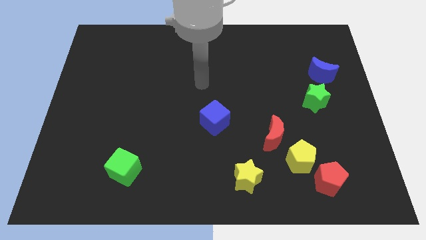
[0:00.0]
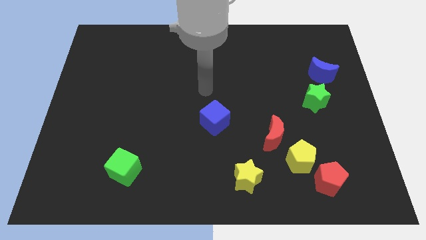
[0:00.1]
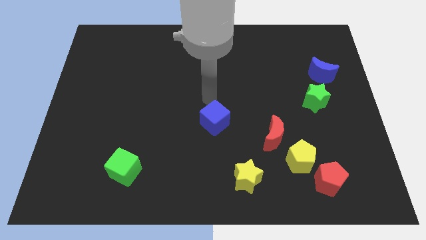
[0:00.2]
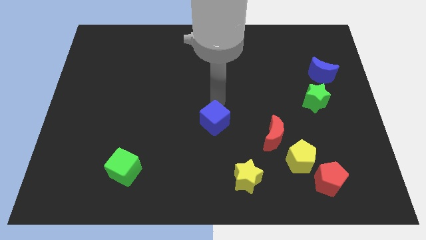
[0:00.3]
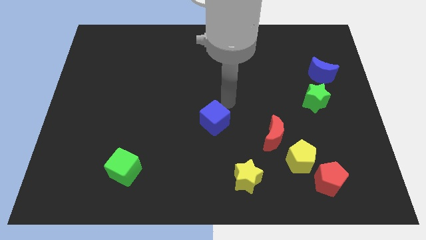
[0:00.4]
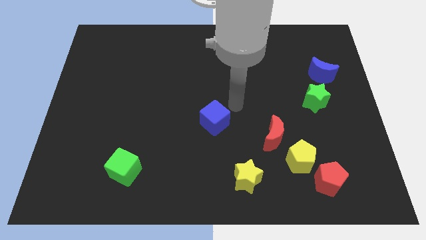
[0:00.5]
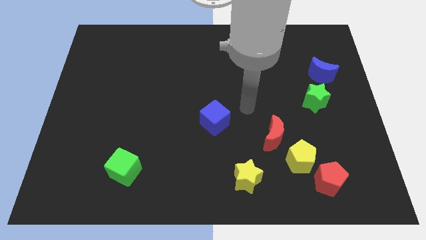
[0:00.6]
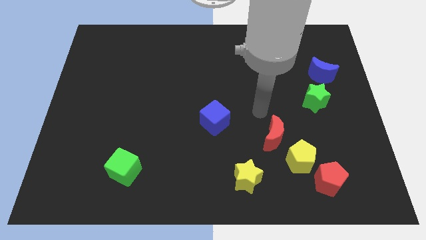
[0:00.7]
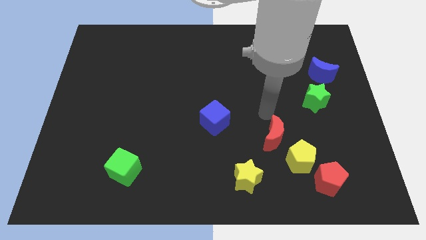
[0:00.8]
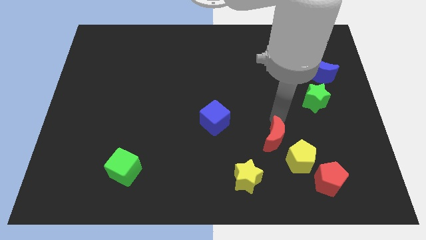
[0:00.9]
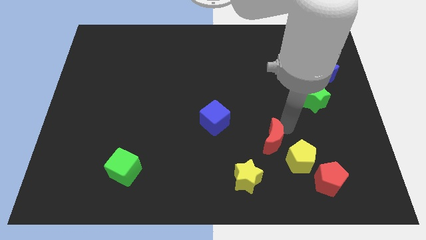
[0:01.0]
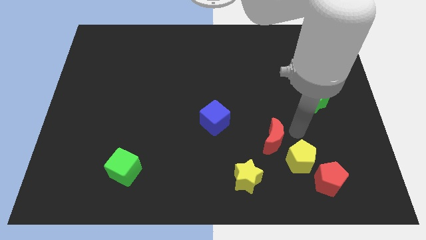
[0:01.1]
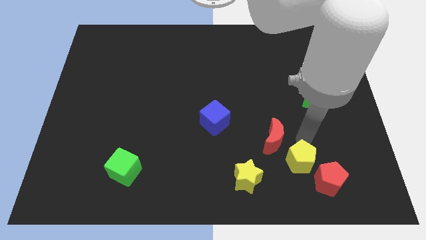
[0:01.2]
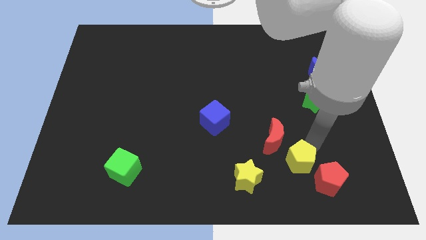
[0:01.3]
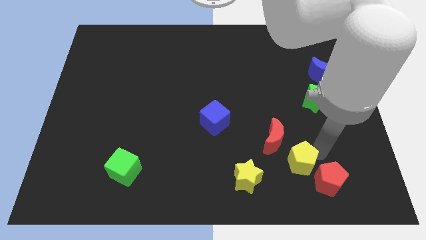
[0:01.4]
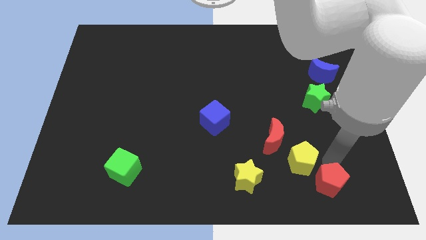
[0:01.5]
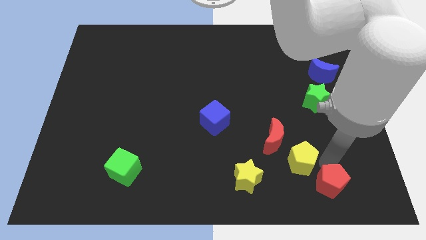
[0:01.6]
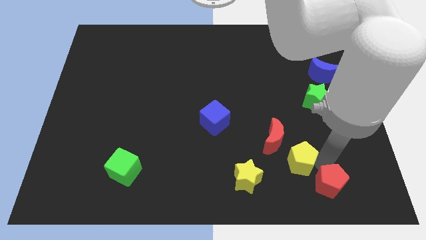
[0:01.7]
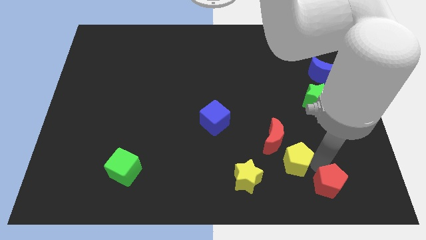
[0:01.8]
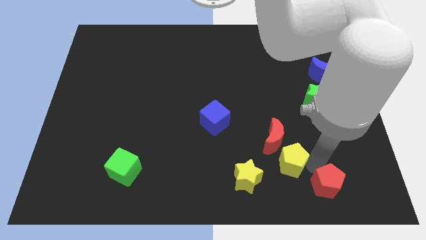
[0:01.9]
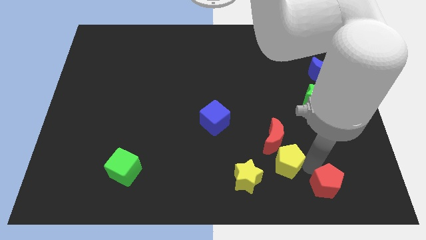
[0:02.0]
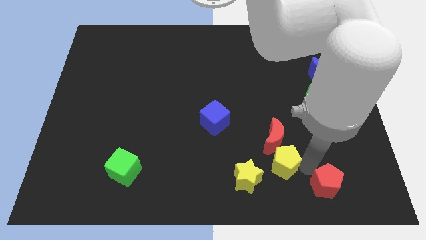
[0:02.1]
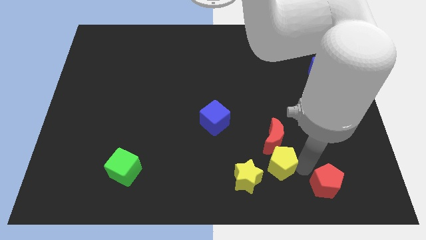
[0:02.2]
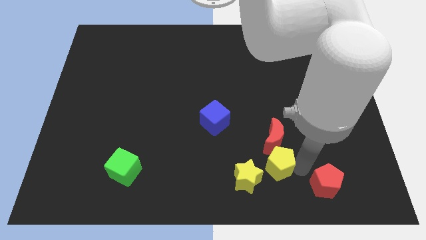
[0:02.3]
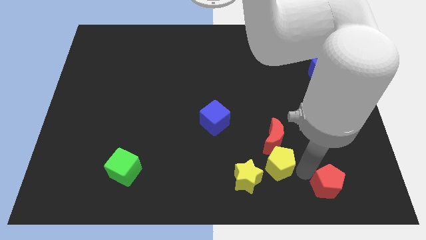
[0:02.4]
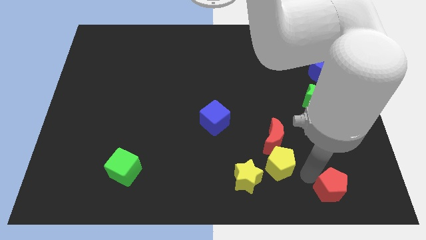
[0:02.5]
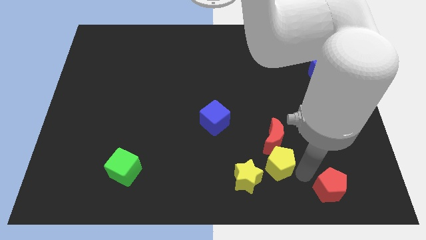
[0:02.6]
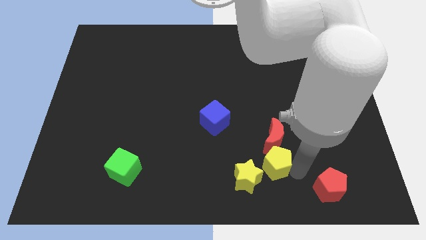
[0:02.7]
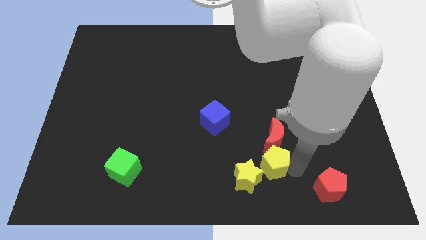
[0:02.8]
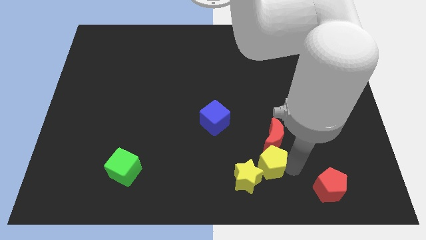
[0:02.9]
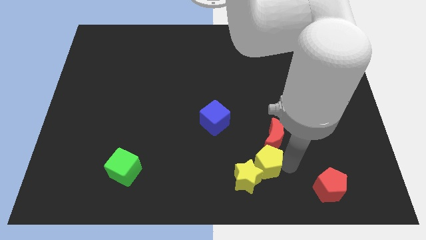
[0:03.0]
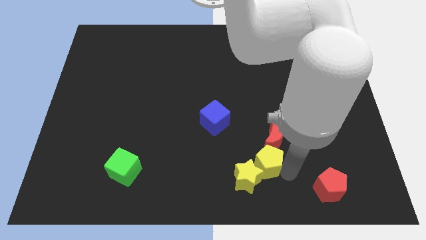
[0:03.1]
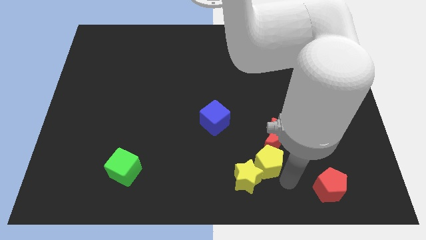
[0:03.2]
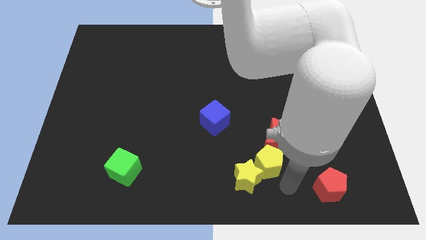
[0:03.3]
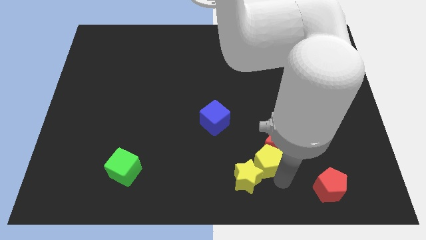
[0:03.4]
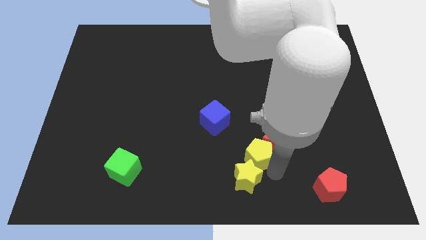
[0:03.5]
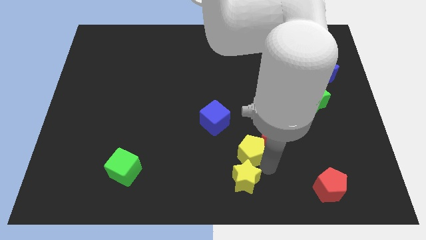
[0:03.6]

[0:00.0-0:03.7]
slightly move the yellow pentagon upwards and left

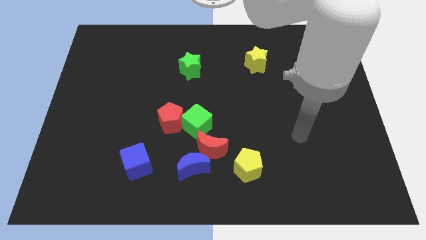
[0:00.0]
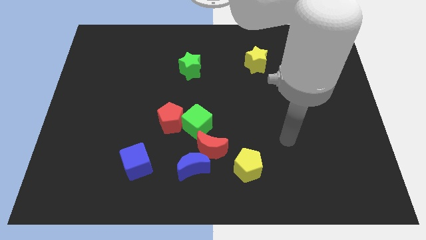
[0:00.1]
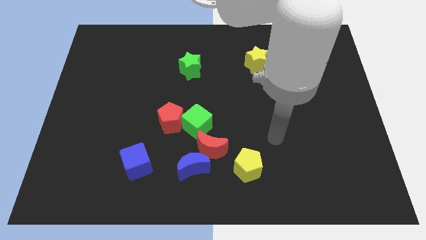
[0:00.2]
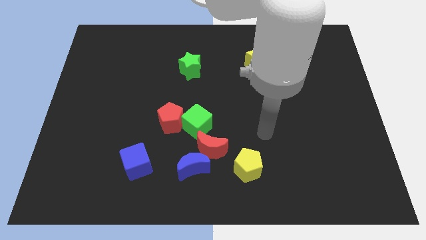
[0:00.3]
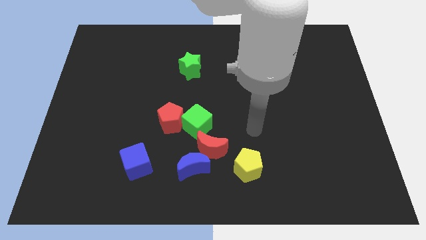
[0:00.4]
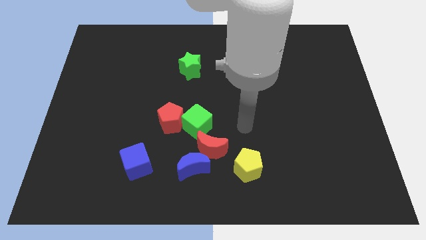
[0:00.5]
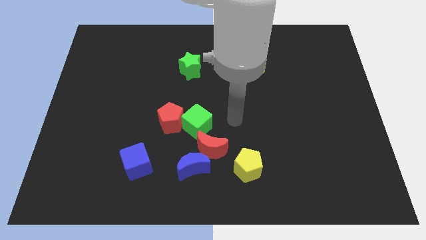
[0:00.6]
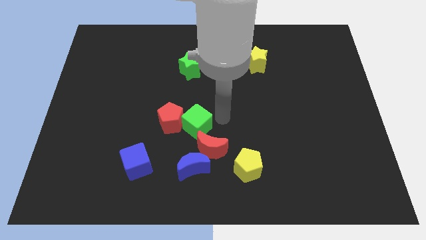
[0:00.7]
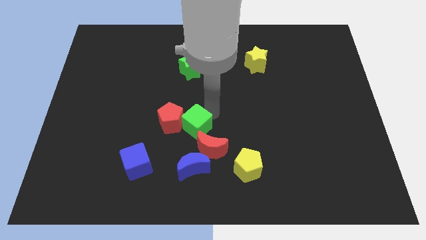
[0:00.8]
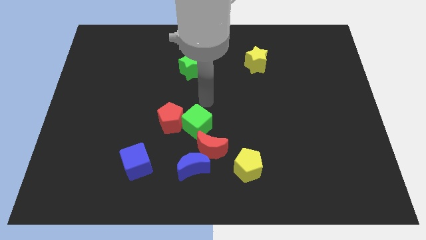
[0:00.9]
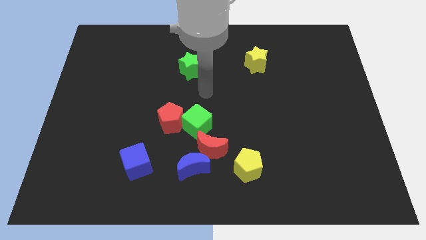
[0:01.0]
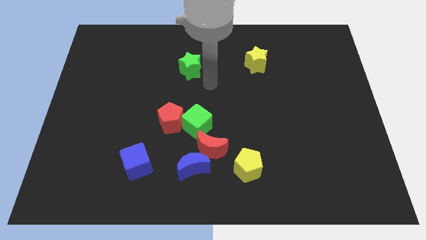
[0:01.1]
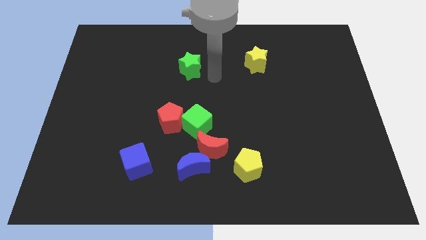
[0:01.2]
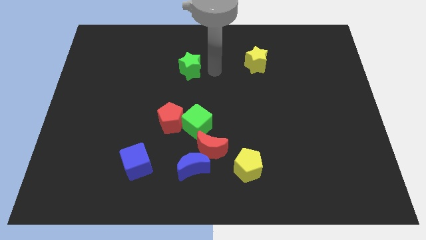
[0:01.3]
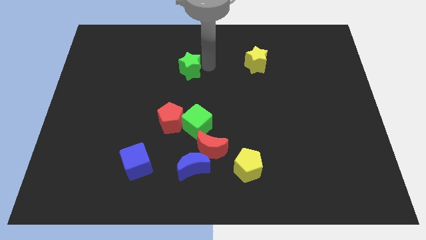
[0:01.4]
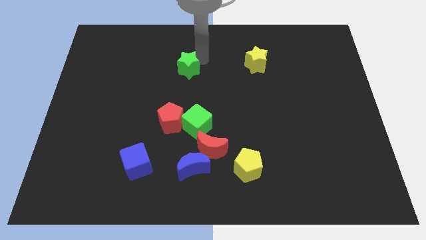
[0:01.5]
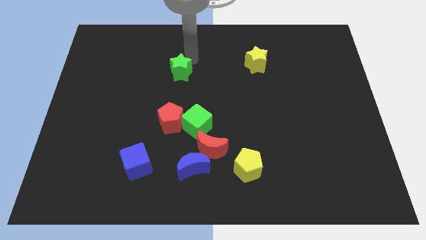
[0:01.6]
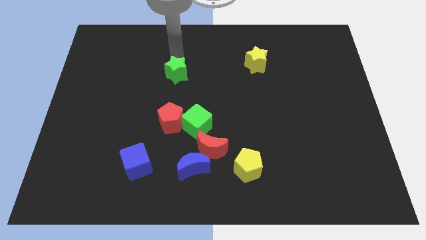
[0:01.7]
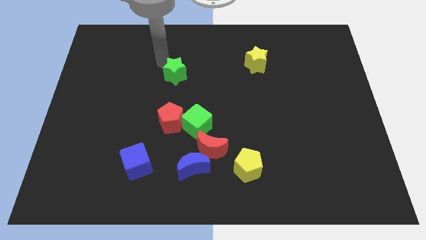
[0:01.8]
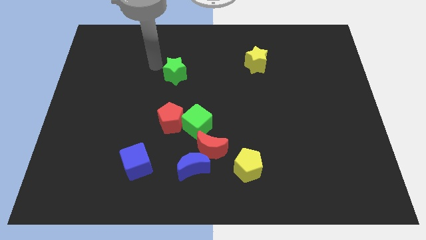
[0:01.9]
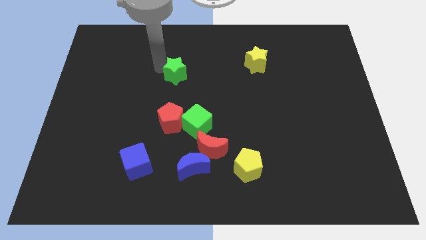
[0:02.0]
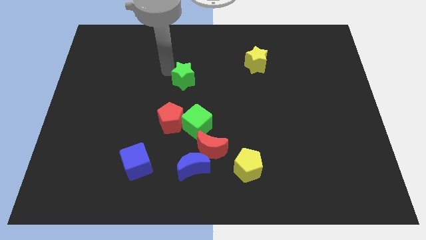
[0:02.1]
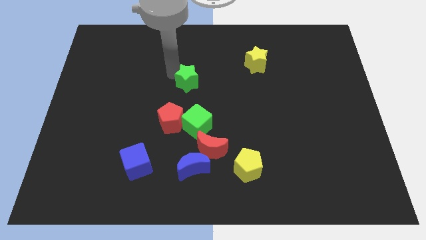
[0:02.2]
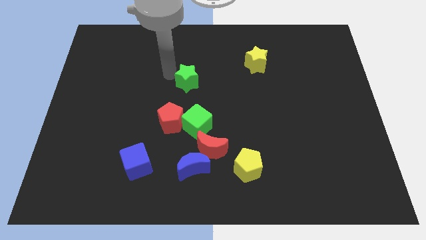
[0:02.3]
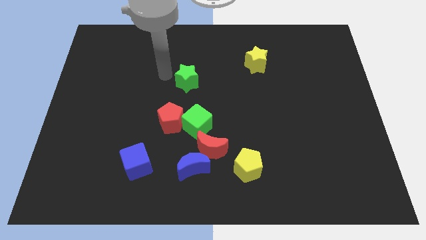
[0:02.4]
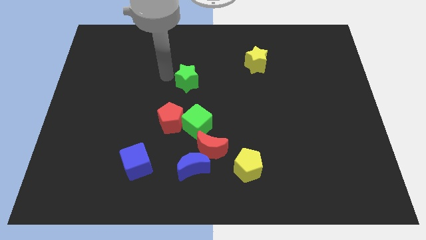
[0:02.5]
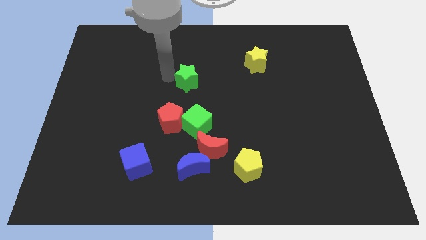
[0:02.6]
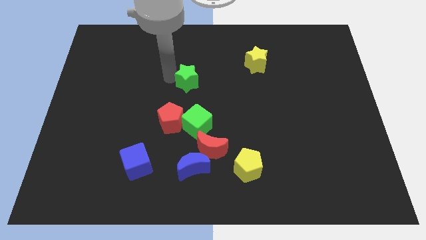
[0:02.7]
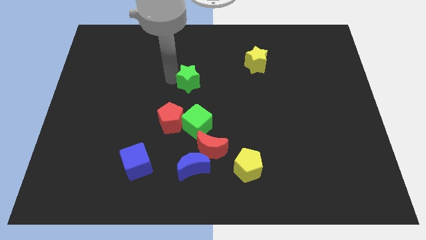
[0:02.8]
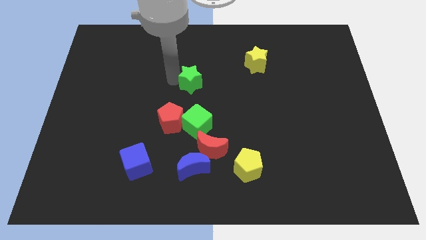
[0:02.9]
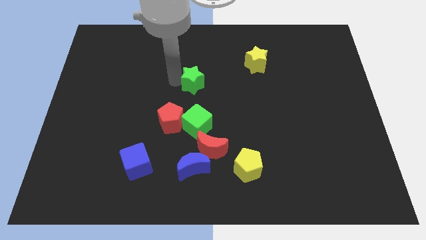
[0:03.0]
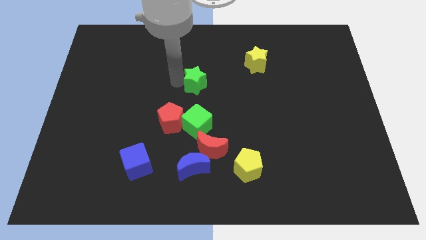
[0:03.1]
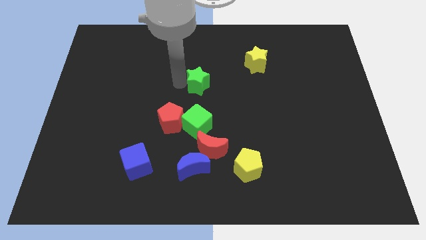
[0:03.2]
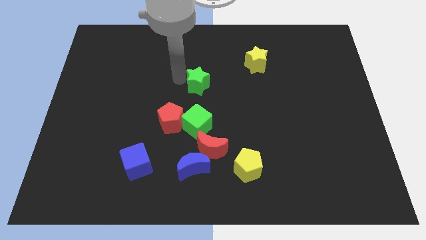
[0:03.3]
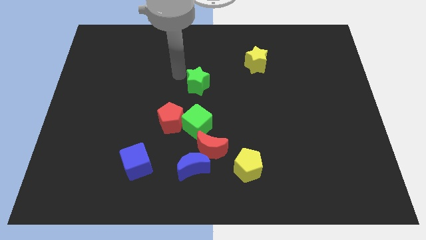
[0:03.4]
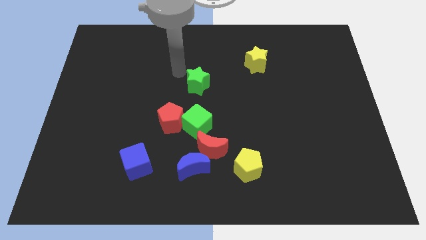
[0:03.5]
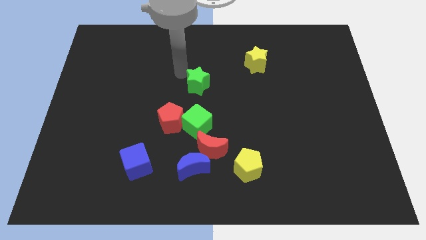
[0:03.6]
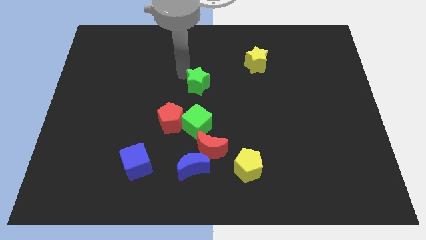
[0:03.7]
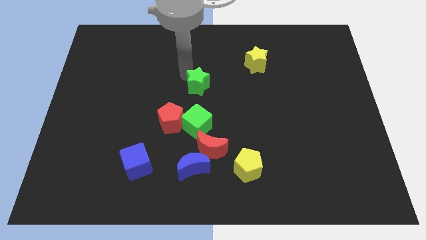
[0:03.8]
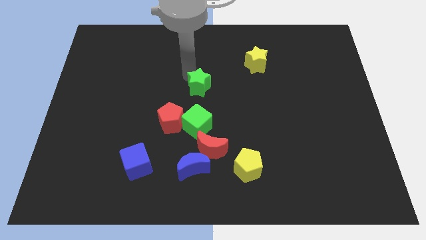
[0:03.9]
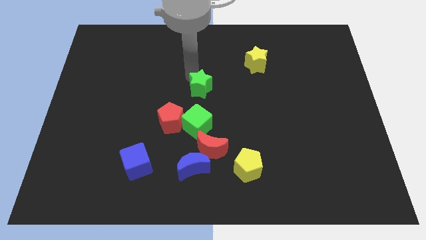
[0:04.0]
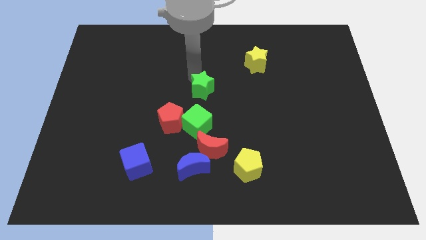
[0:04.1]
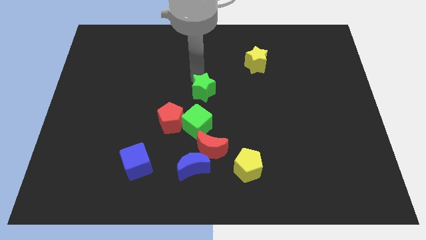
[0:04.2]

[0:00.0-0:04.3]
slightly move the green star down and then to the right
